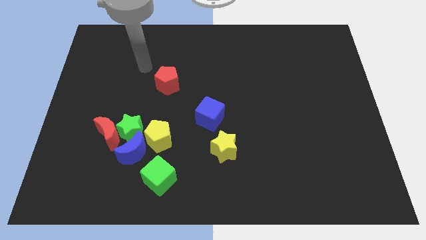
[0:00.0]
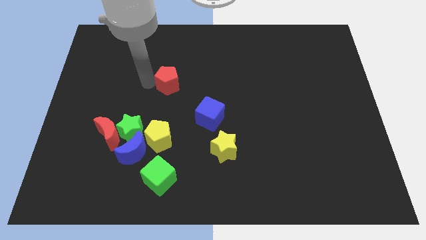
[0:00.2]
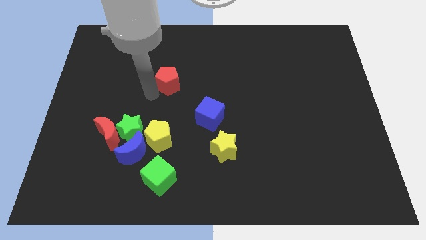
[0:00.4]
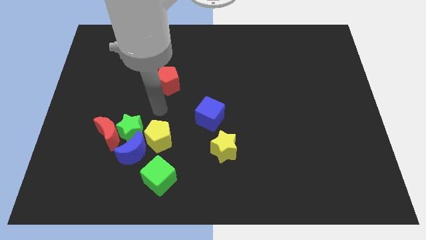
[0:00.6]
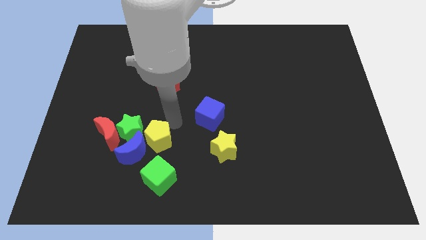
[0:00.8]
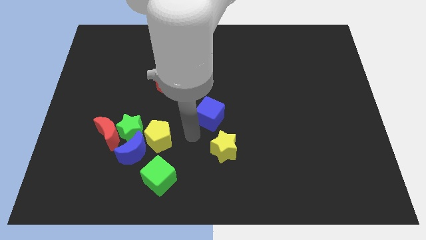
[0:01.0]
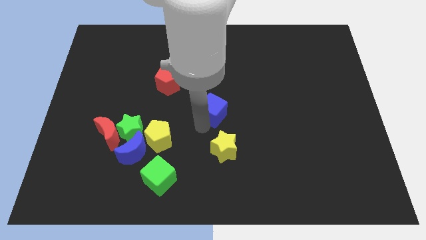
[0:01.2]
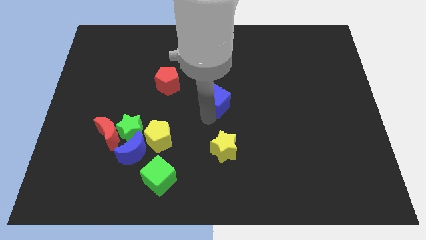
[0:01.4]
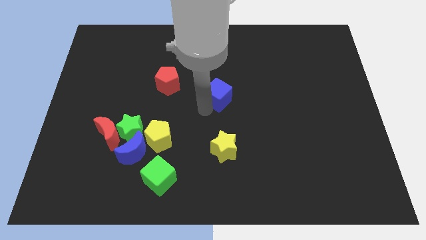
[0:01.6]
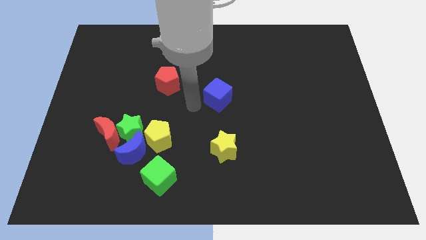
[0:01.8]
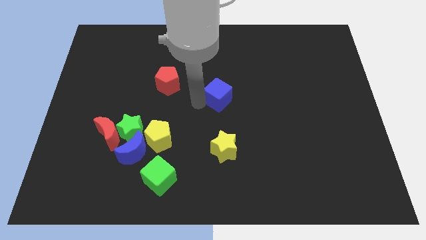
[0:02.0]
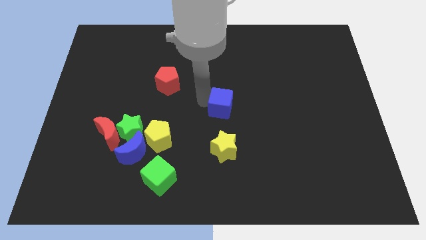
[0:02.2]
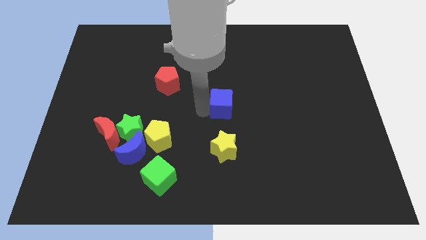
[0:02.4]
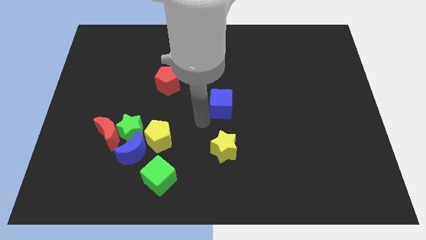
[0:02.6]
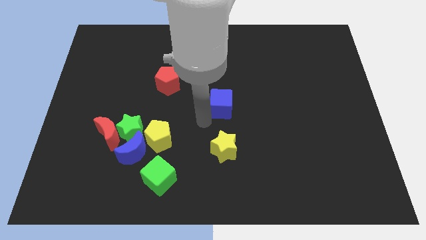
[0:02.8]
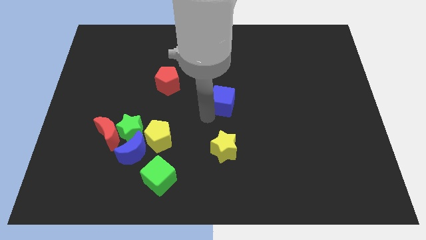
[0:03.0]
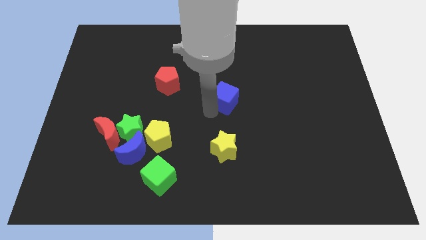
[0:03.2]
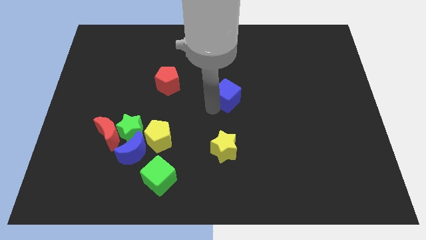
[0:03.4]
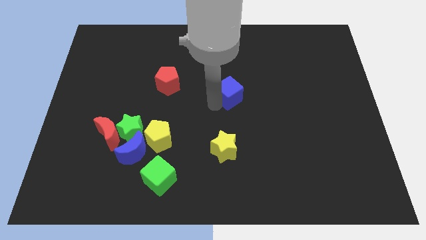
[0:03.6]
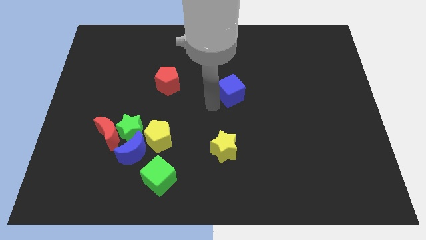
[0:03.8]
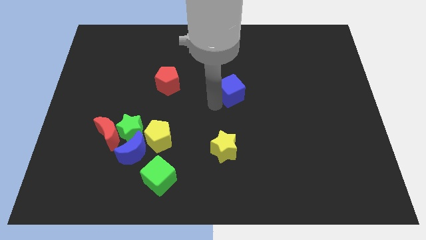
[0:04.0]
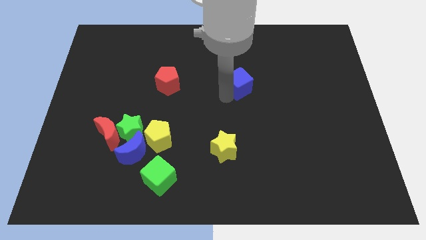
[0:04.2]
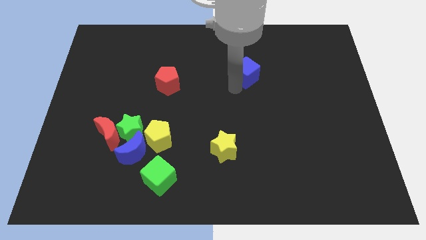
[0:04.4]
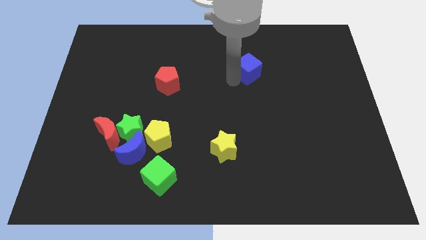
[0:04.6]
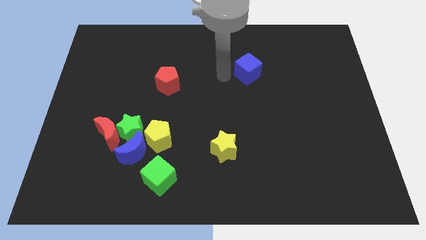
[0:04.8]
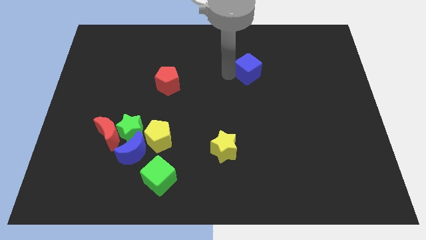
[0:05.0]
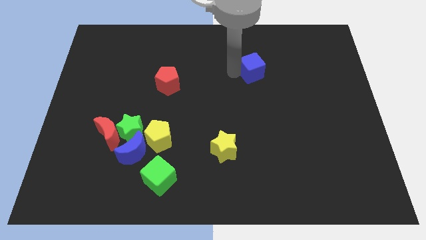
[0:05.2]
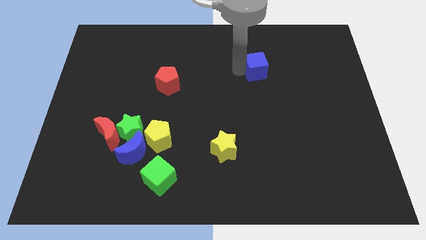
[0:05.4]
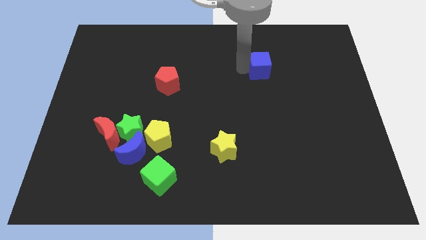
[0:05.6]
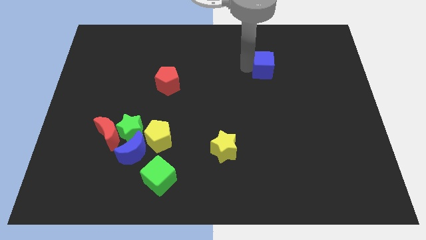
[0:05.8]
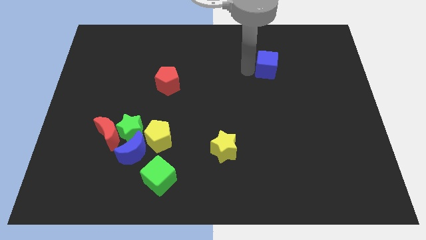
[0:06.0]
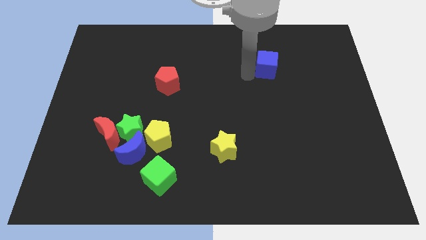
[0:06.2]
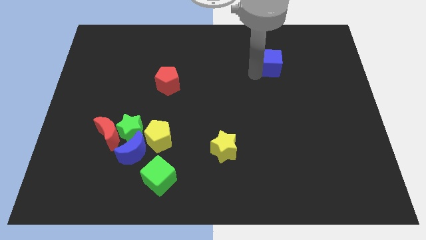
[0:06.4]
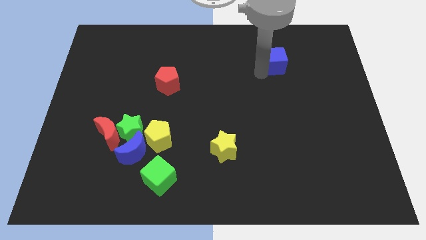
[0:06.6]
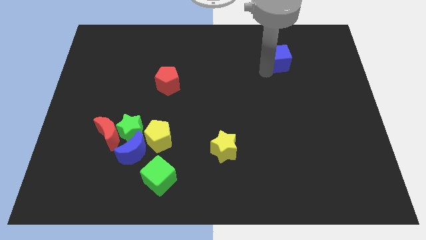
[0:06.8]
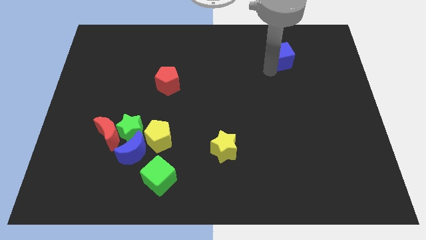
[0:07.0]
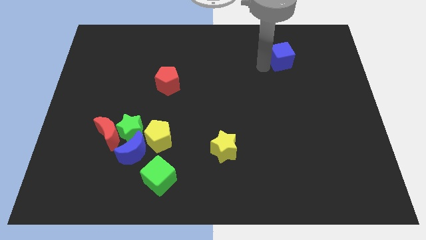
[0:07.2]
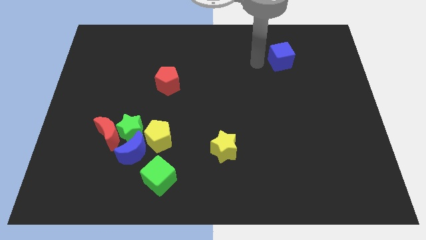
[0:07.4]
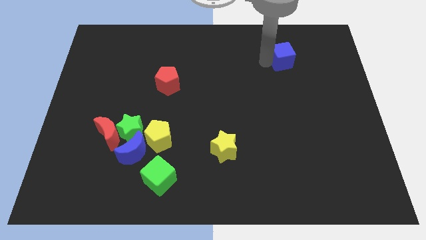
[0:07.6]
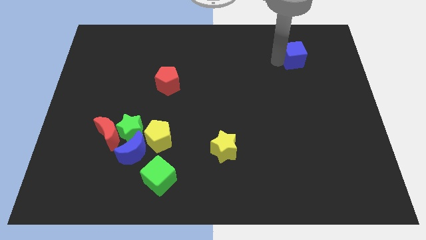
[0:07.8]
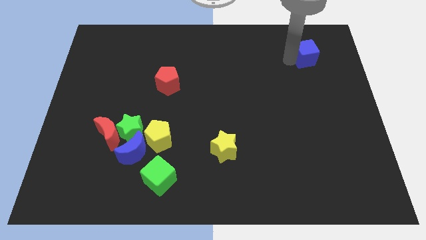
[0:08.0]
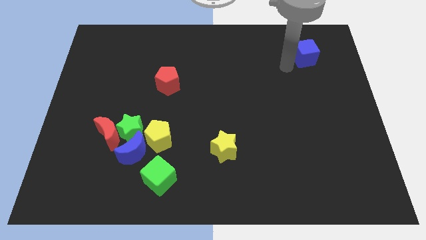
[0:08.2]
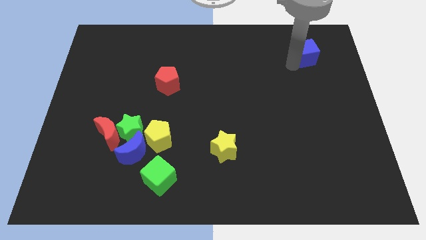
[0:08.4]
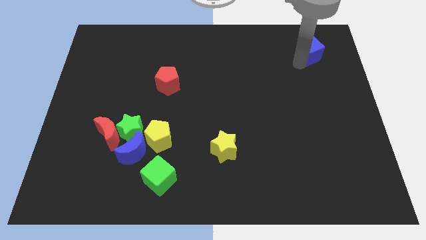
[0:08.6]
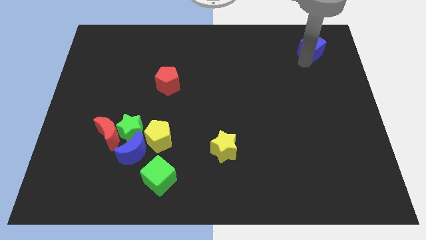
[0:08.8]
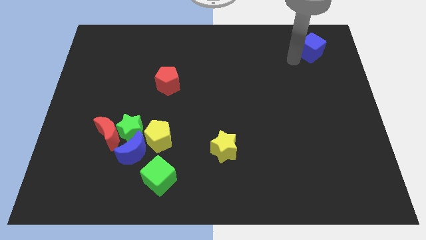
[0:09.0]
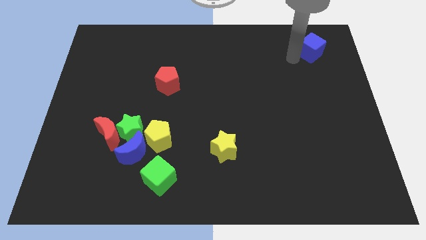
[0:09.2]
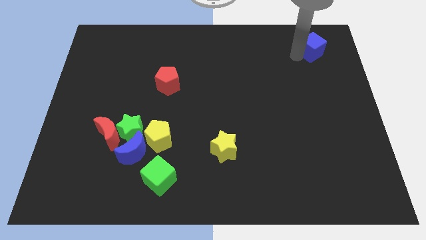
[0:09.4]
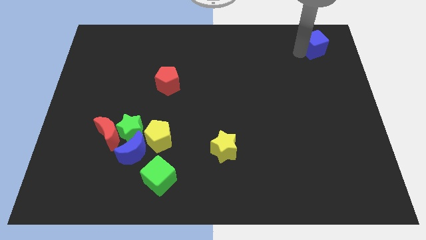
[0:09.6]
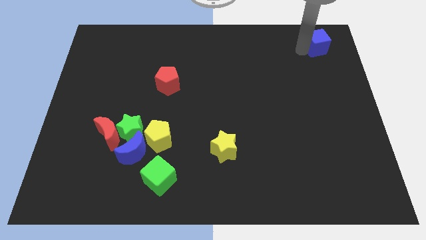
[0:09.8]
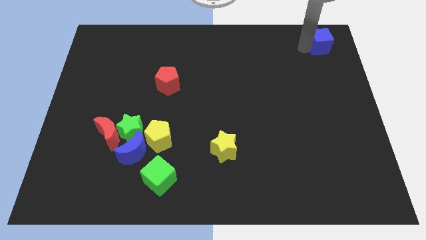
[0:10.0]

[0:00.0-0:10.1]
push the blue cube to the upper right corner

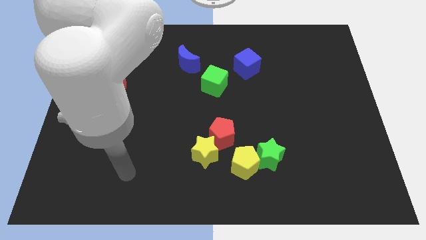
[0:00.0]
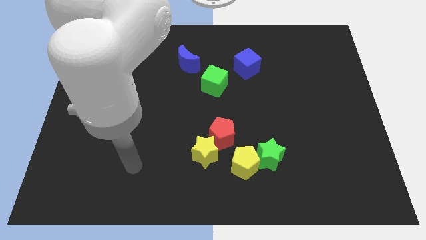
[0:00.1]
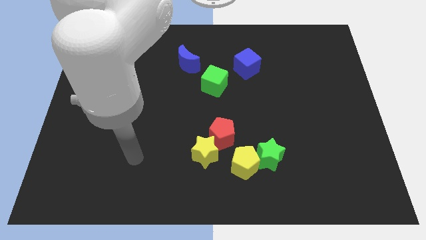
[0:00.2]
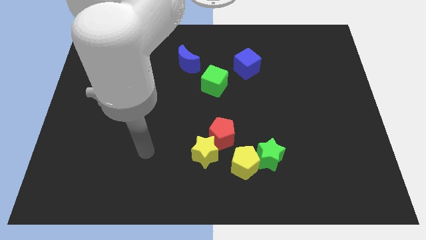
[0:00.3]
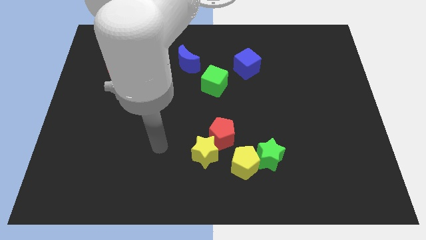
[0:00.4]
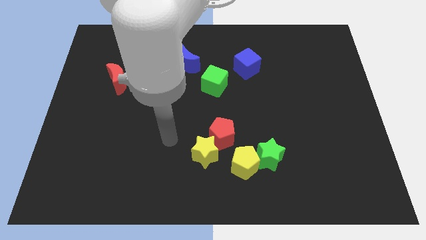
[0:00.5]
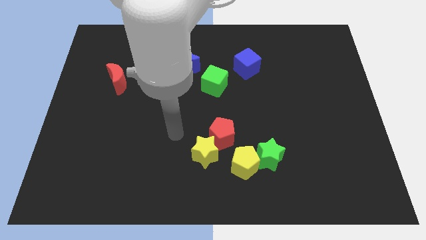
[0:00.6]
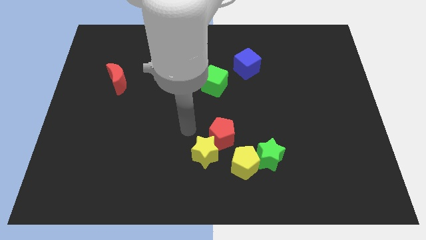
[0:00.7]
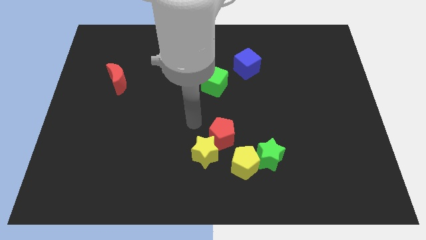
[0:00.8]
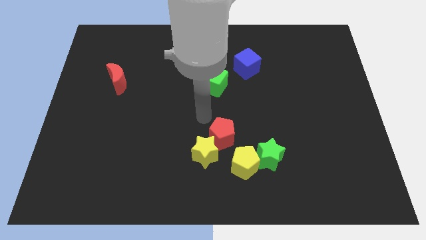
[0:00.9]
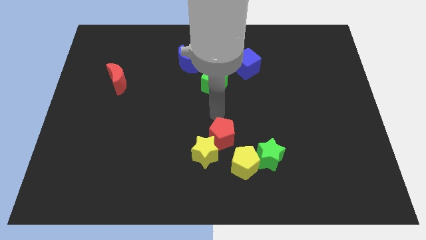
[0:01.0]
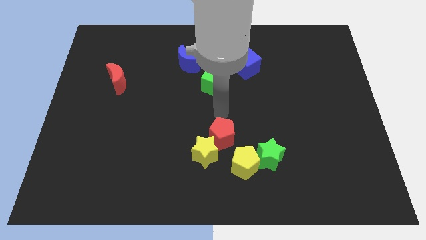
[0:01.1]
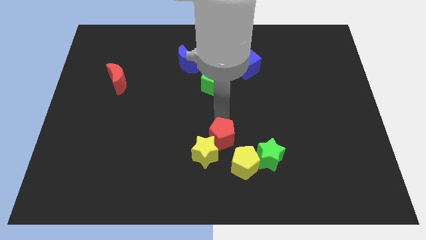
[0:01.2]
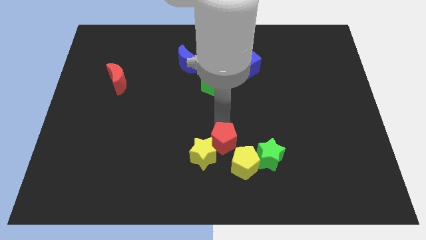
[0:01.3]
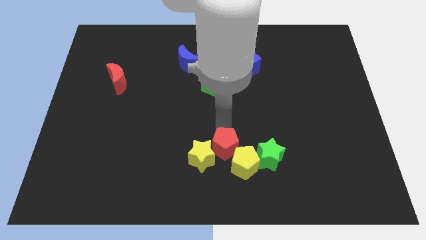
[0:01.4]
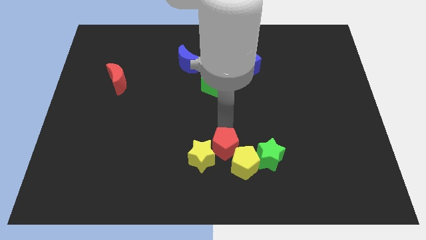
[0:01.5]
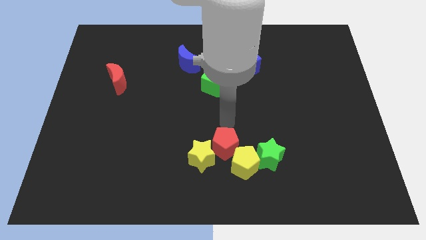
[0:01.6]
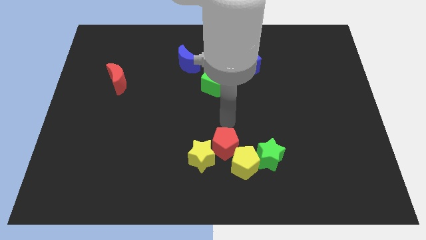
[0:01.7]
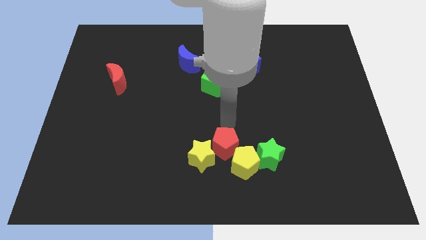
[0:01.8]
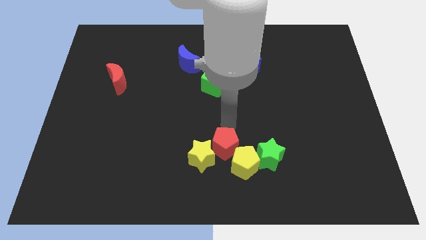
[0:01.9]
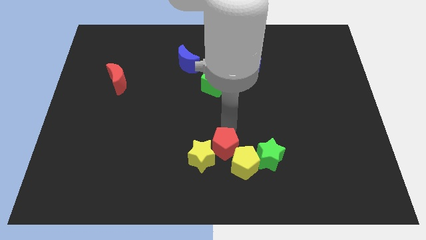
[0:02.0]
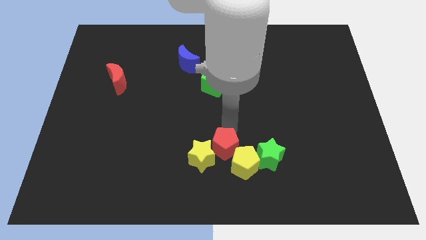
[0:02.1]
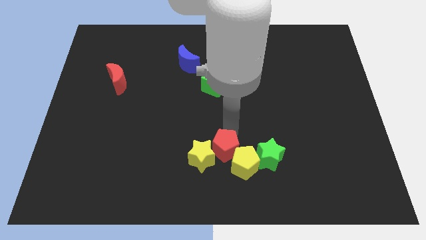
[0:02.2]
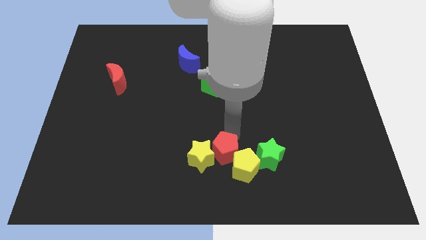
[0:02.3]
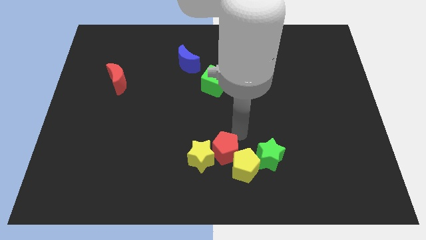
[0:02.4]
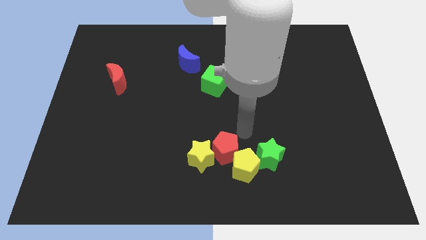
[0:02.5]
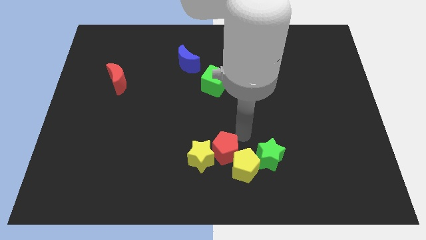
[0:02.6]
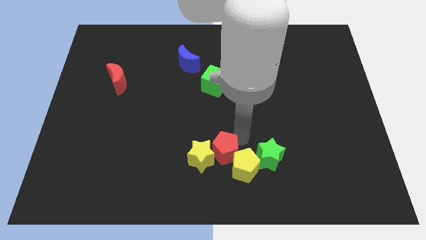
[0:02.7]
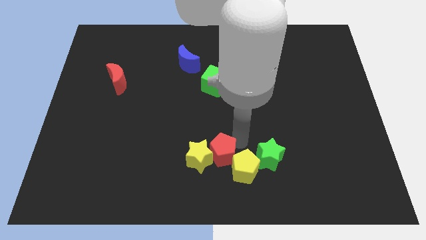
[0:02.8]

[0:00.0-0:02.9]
move the red pentagon to the bottom
